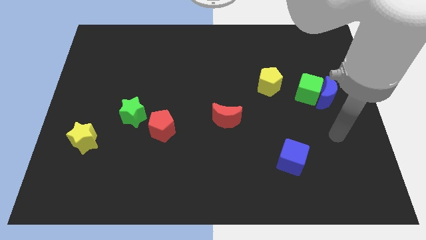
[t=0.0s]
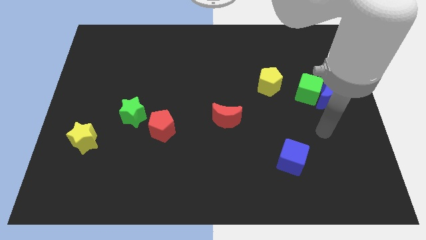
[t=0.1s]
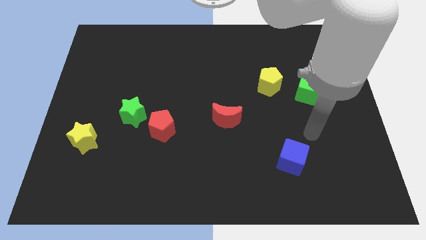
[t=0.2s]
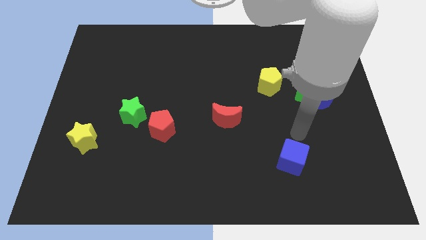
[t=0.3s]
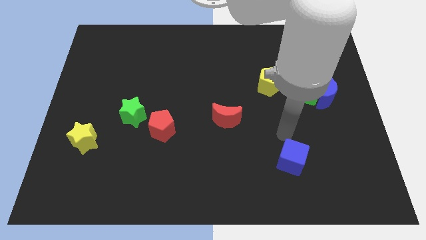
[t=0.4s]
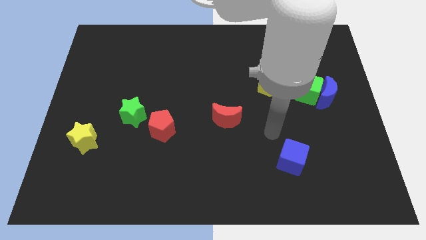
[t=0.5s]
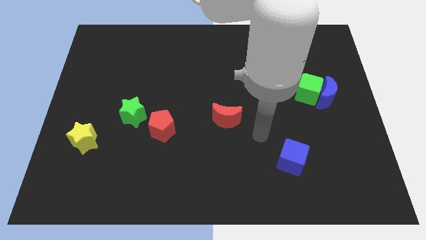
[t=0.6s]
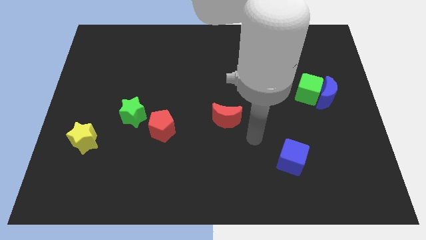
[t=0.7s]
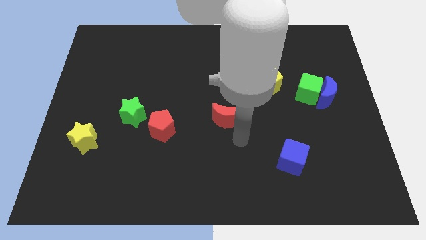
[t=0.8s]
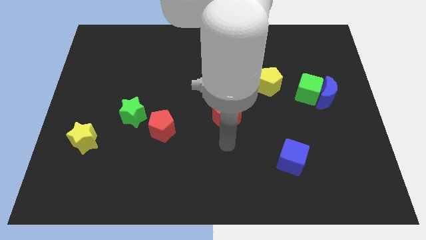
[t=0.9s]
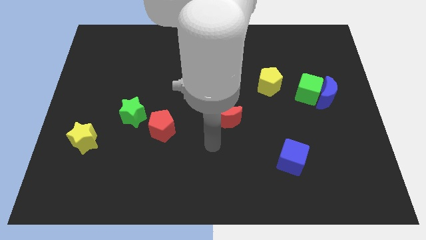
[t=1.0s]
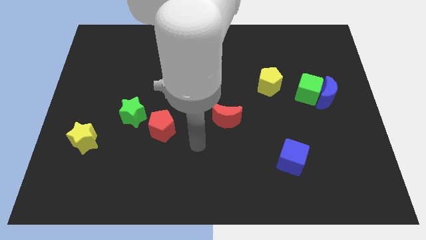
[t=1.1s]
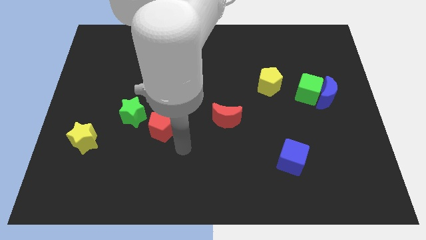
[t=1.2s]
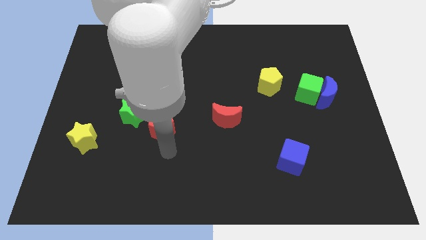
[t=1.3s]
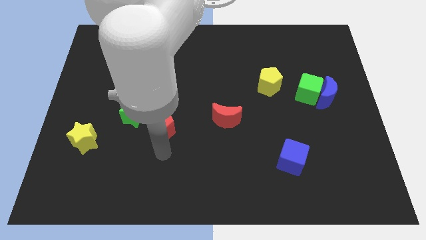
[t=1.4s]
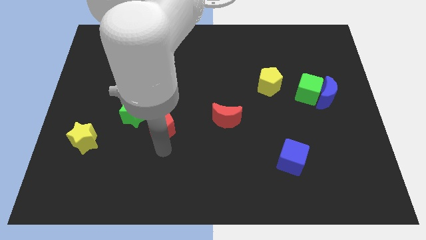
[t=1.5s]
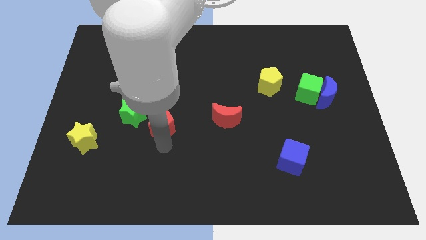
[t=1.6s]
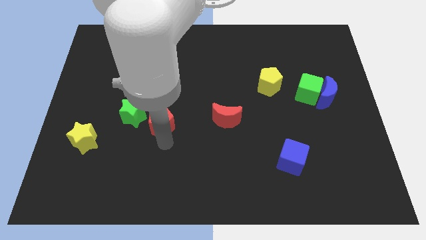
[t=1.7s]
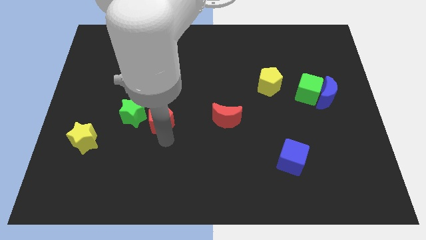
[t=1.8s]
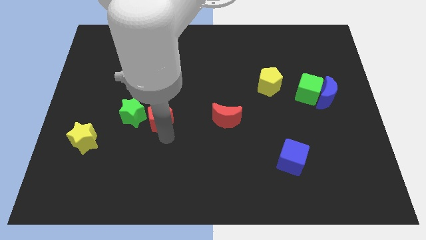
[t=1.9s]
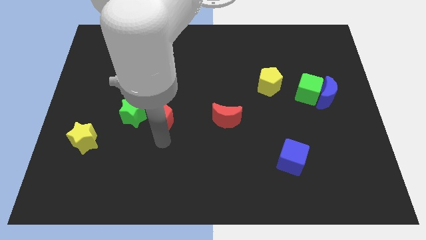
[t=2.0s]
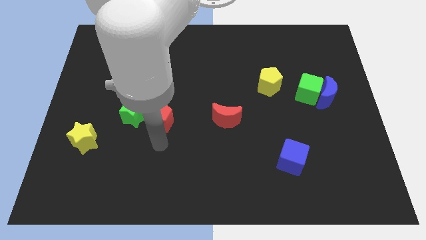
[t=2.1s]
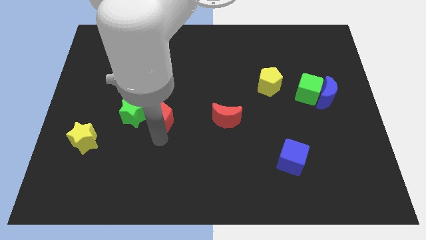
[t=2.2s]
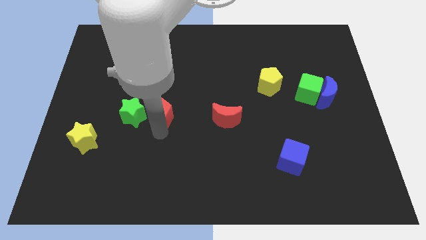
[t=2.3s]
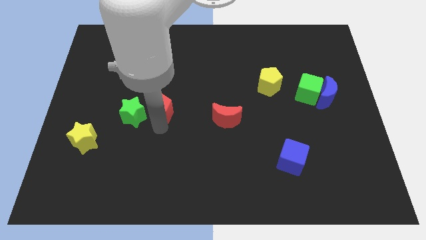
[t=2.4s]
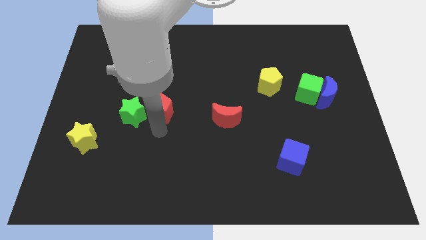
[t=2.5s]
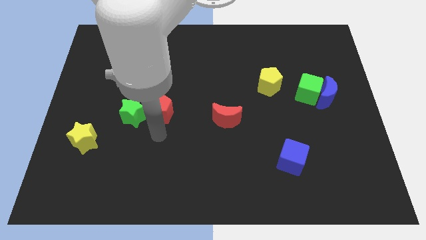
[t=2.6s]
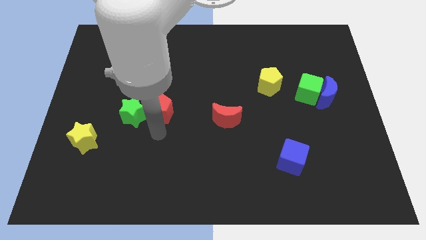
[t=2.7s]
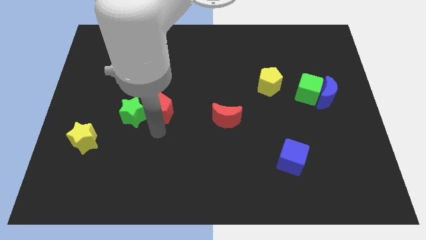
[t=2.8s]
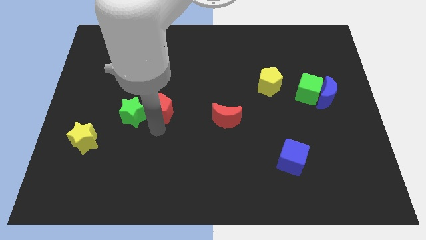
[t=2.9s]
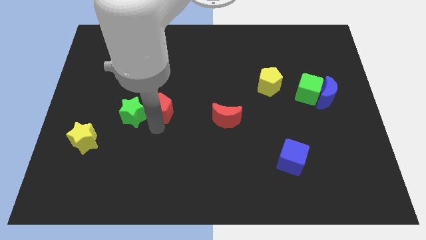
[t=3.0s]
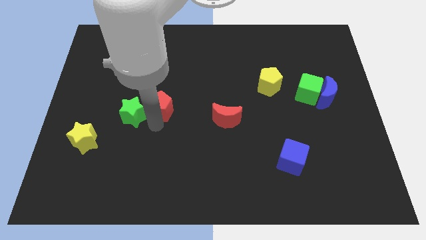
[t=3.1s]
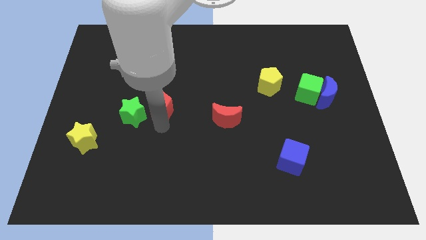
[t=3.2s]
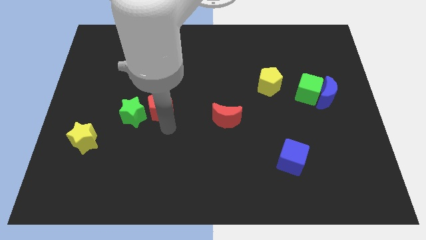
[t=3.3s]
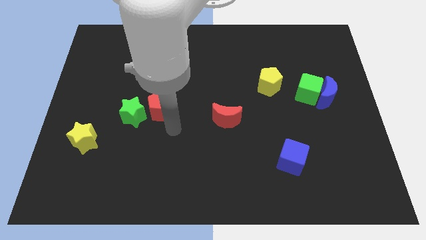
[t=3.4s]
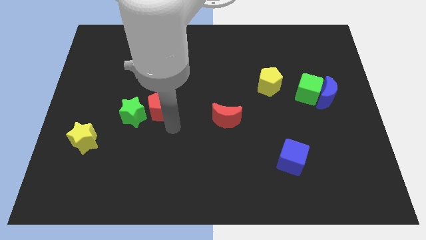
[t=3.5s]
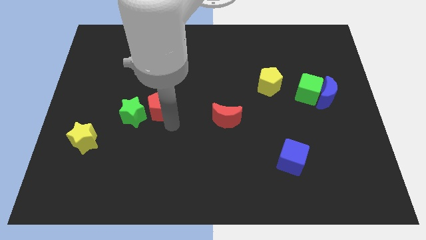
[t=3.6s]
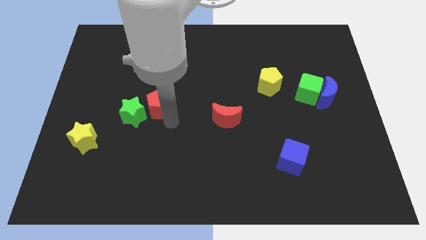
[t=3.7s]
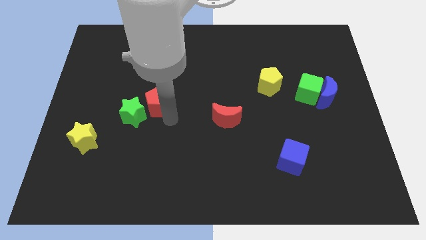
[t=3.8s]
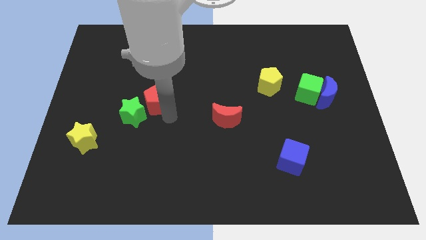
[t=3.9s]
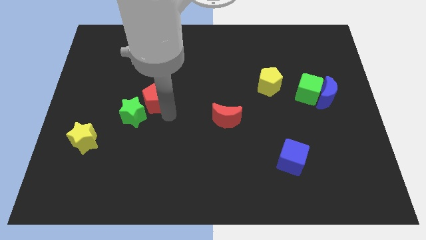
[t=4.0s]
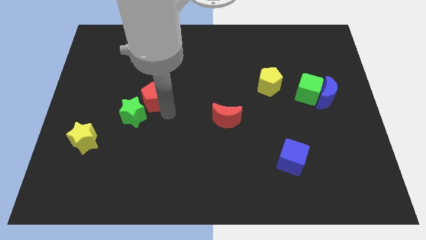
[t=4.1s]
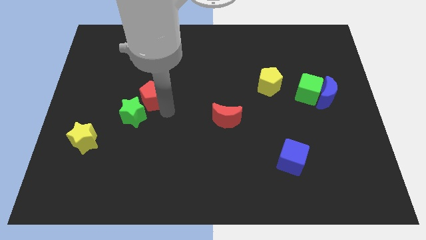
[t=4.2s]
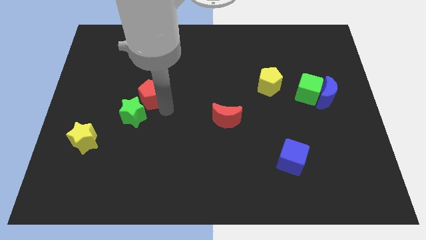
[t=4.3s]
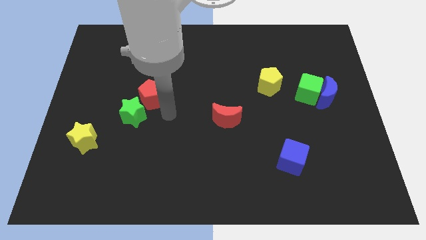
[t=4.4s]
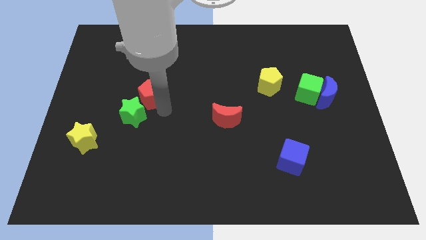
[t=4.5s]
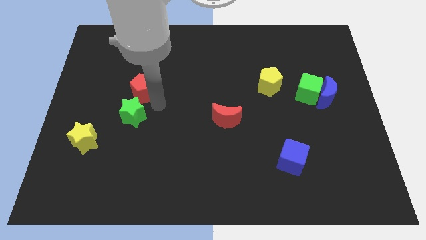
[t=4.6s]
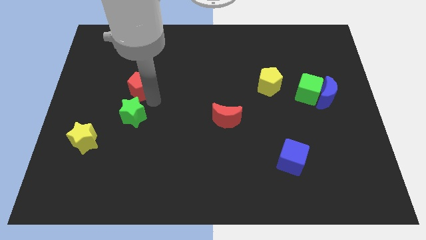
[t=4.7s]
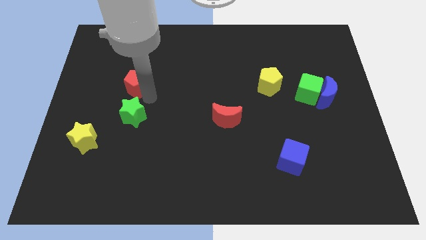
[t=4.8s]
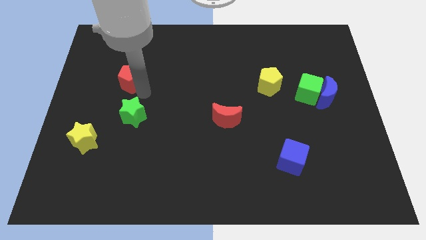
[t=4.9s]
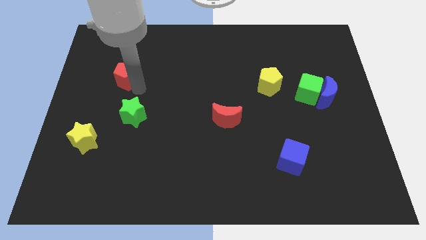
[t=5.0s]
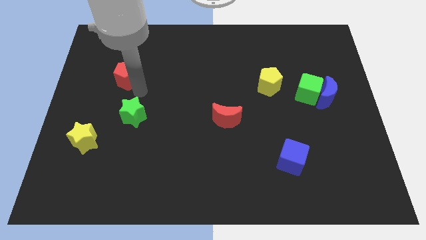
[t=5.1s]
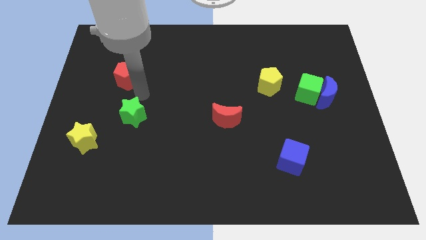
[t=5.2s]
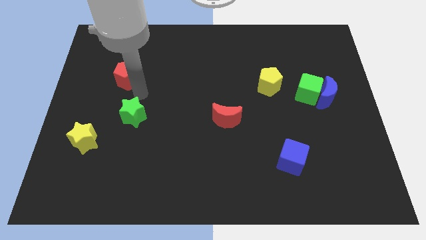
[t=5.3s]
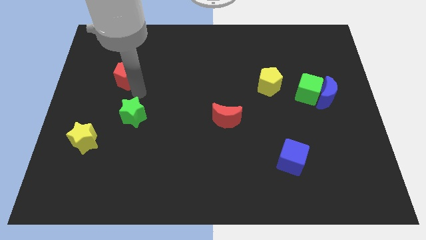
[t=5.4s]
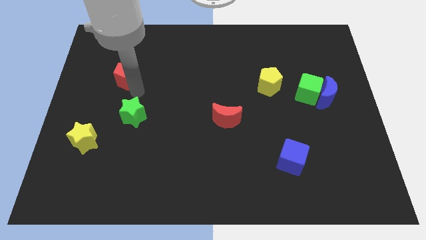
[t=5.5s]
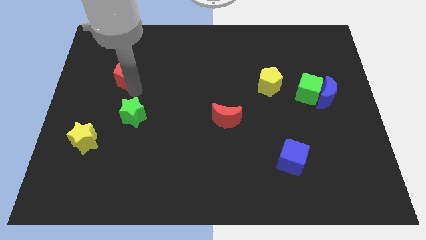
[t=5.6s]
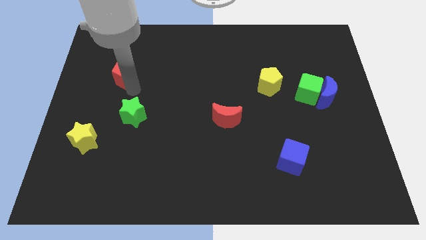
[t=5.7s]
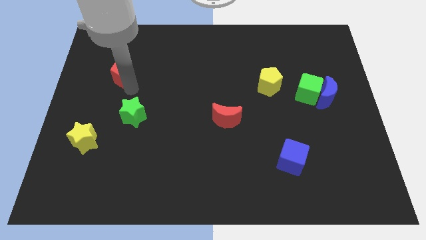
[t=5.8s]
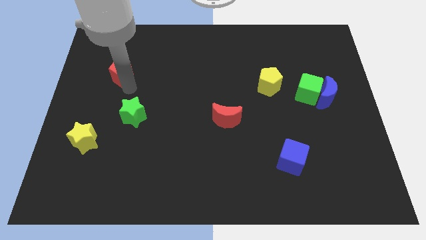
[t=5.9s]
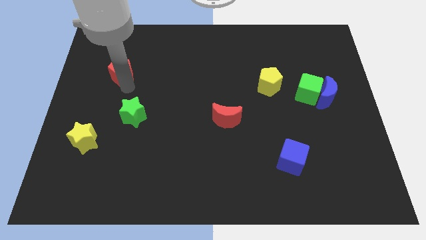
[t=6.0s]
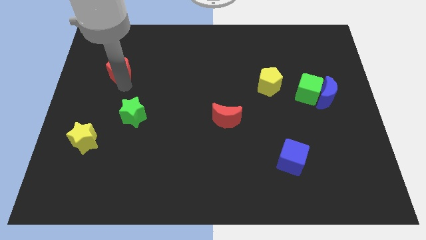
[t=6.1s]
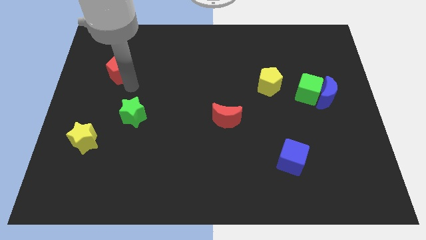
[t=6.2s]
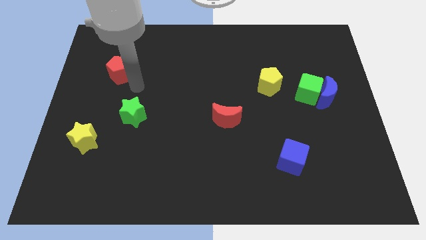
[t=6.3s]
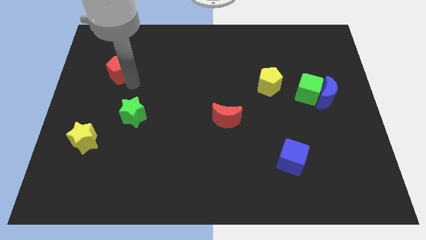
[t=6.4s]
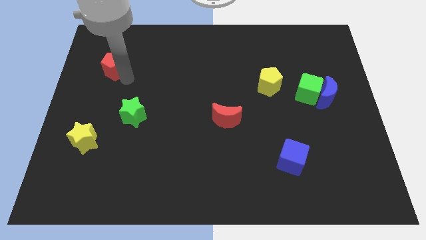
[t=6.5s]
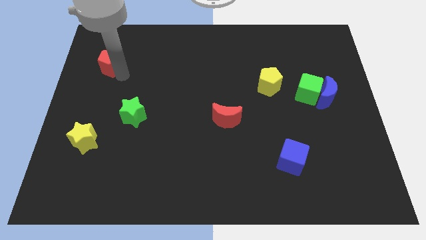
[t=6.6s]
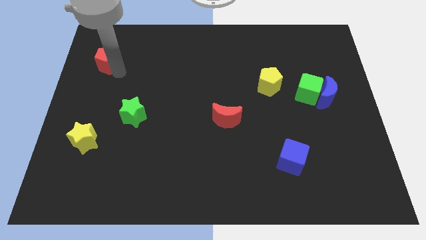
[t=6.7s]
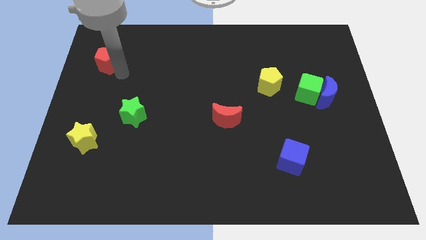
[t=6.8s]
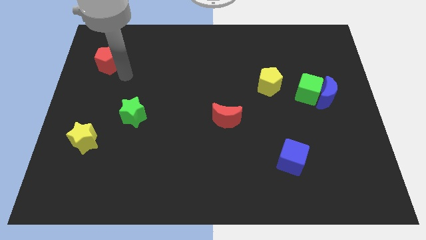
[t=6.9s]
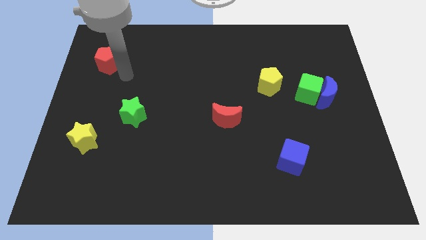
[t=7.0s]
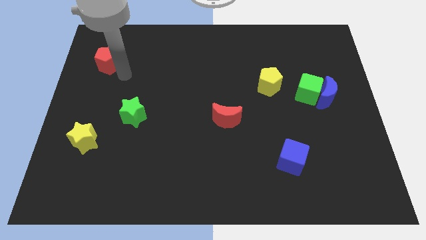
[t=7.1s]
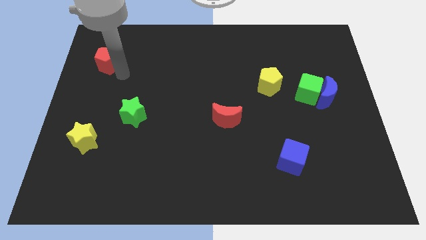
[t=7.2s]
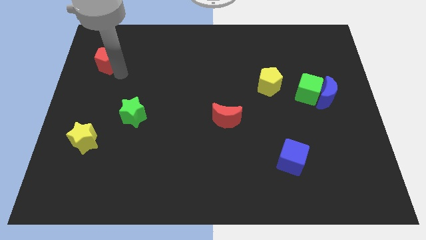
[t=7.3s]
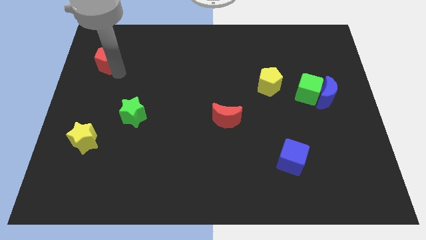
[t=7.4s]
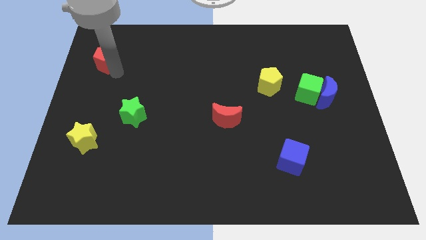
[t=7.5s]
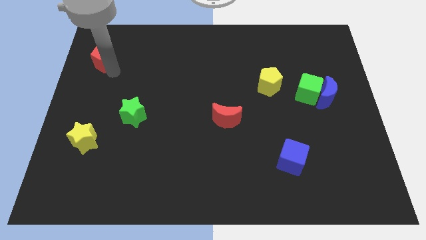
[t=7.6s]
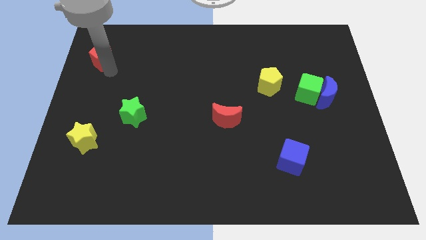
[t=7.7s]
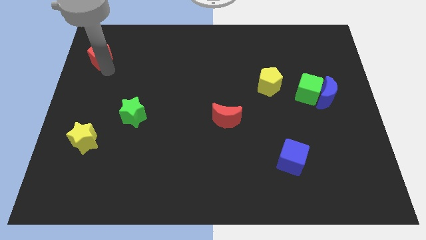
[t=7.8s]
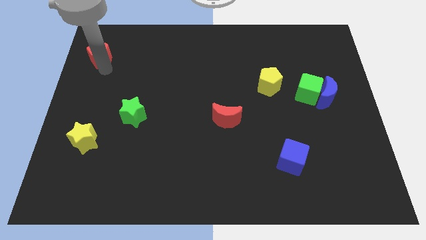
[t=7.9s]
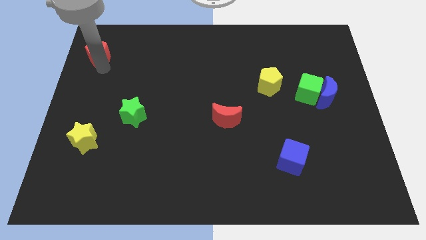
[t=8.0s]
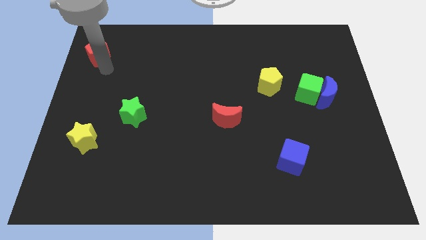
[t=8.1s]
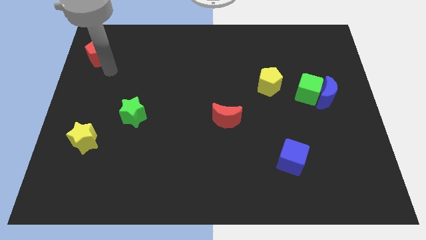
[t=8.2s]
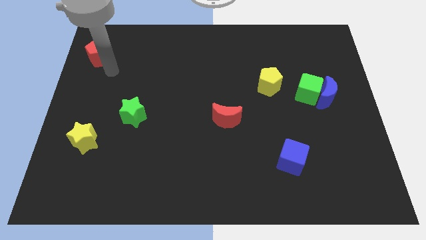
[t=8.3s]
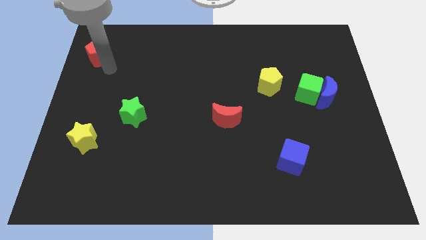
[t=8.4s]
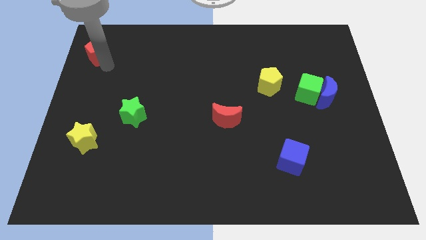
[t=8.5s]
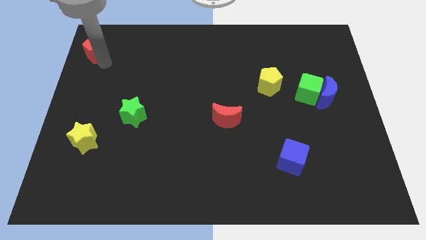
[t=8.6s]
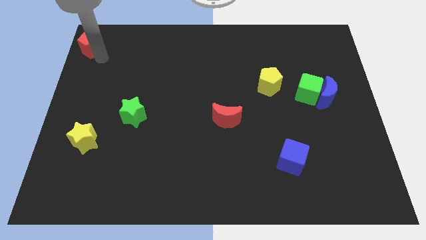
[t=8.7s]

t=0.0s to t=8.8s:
push the red pentagon to the upper left corner
